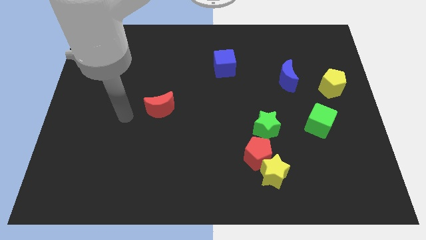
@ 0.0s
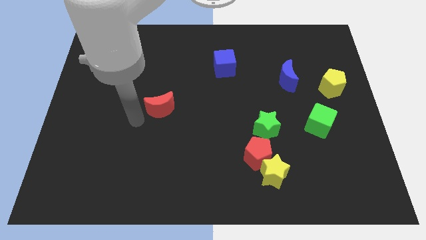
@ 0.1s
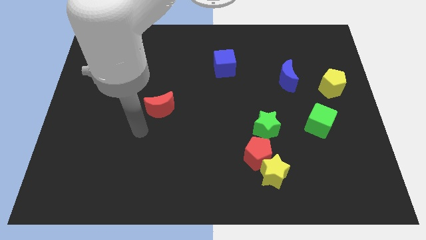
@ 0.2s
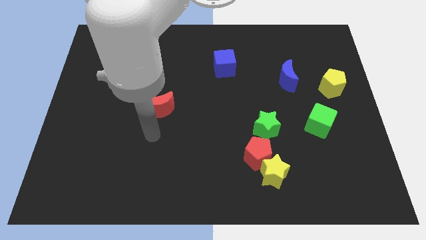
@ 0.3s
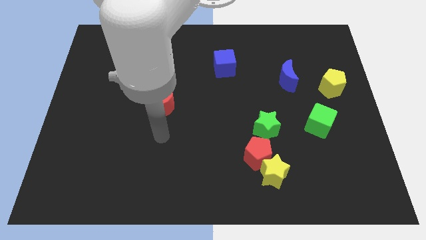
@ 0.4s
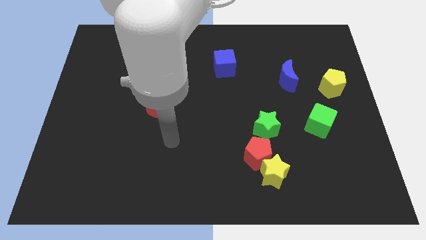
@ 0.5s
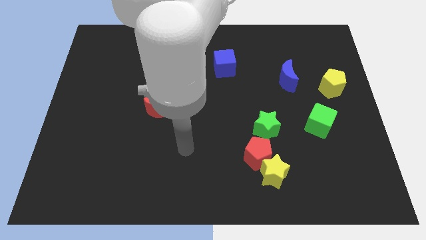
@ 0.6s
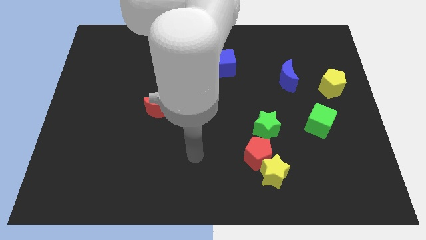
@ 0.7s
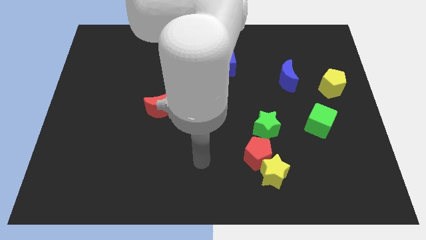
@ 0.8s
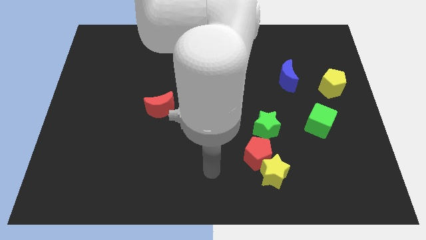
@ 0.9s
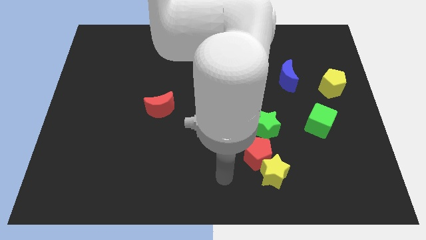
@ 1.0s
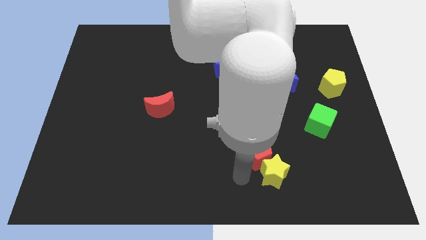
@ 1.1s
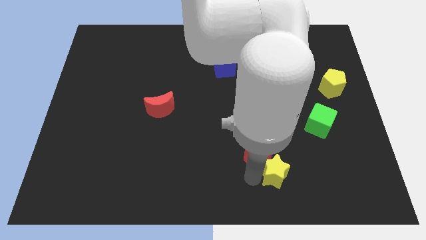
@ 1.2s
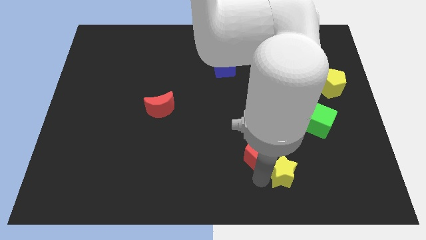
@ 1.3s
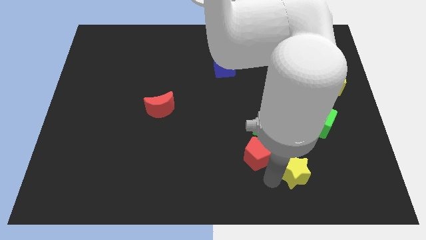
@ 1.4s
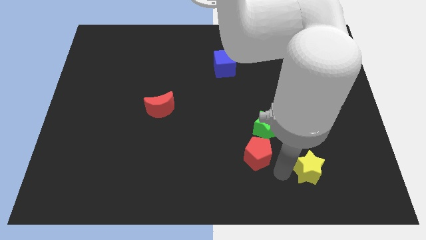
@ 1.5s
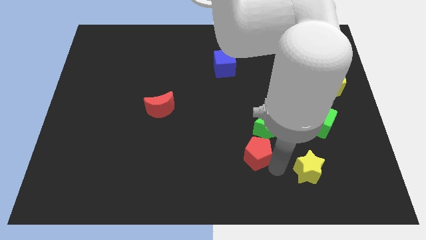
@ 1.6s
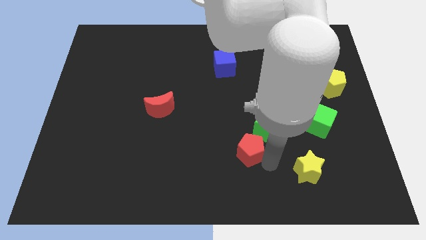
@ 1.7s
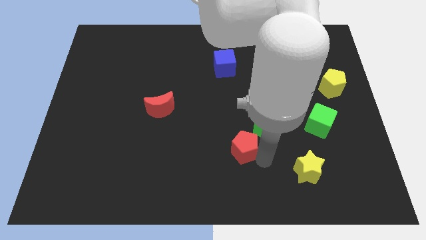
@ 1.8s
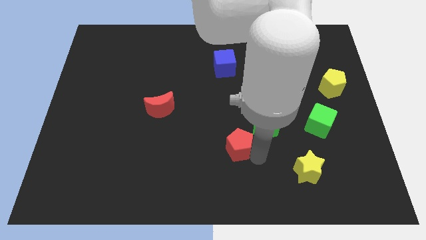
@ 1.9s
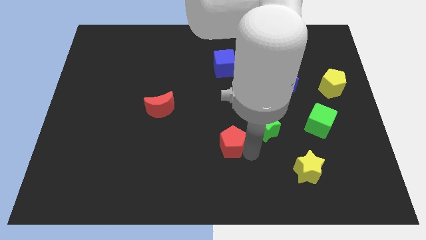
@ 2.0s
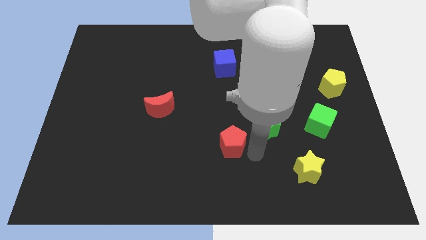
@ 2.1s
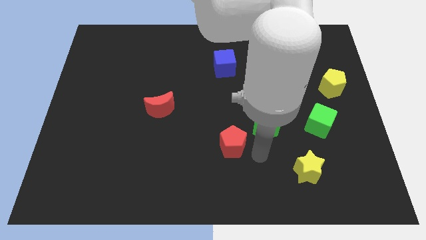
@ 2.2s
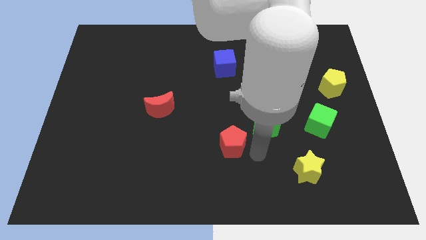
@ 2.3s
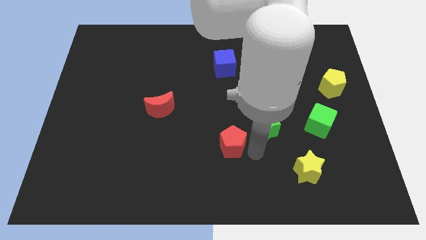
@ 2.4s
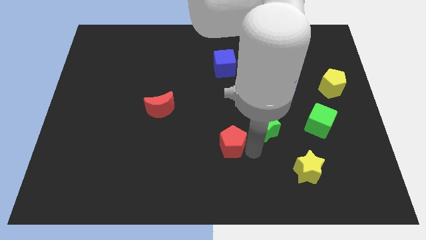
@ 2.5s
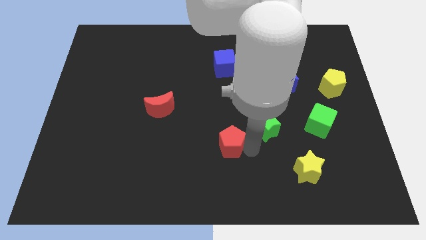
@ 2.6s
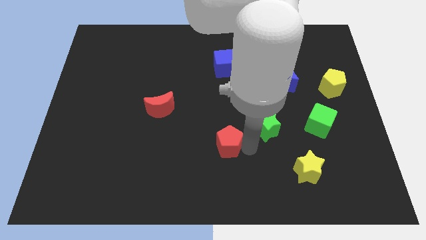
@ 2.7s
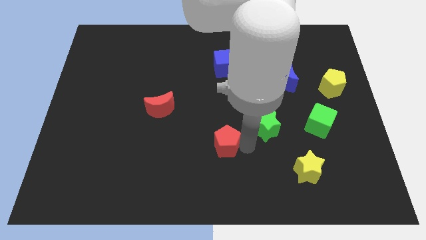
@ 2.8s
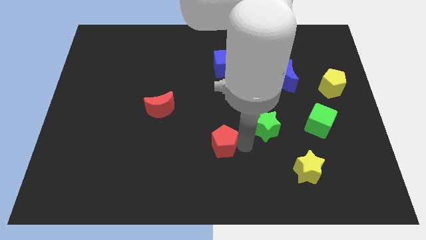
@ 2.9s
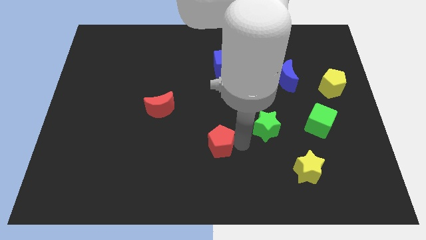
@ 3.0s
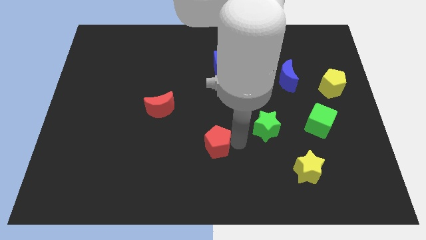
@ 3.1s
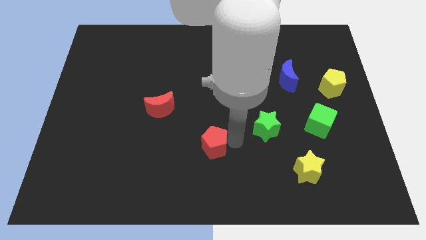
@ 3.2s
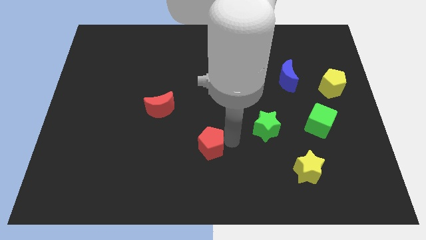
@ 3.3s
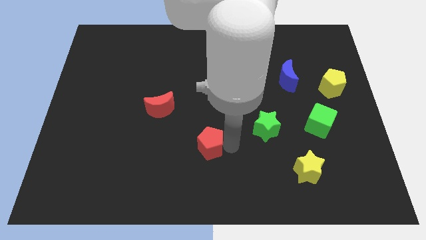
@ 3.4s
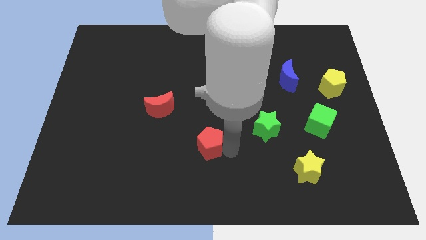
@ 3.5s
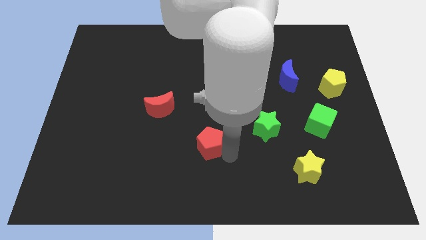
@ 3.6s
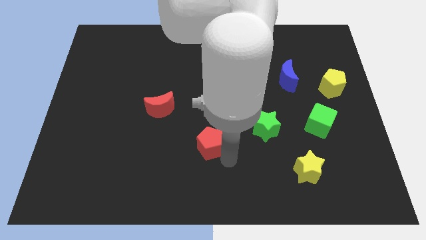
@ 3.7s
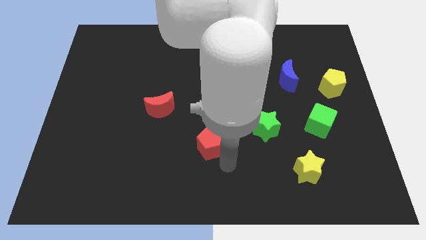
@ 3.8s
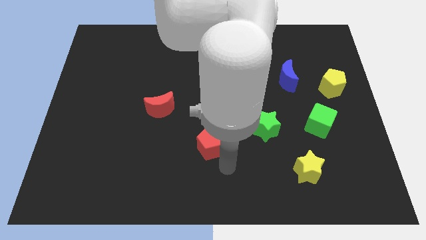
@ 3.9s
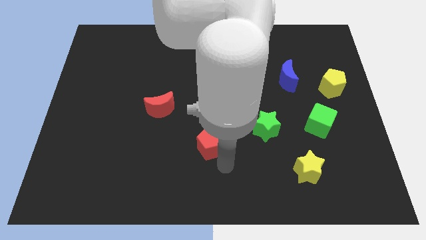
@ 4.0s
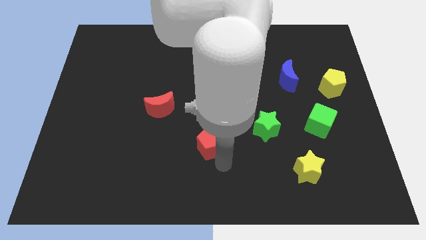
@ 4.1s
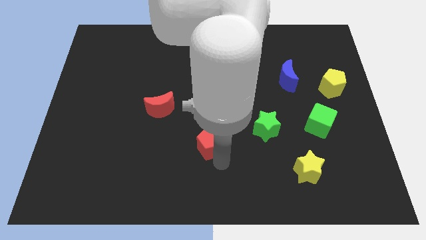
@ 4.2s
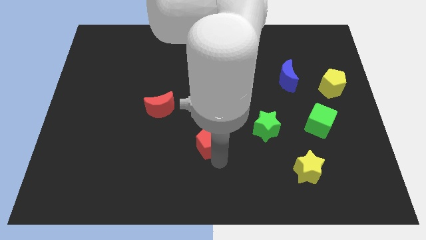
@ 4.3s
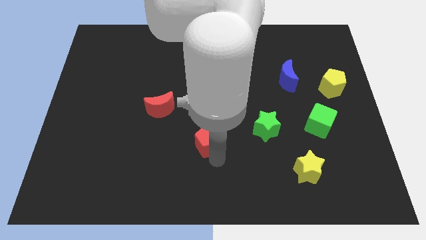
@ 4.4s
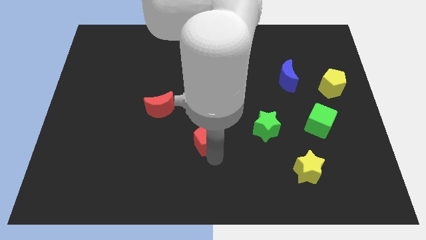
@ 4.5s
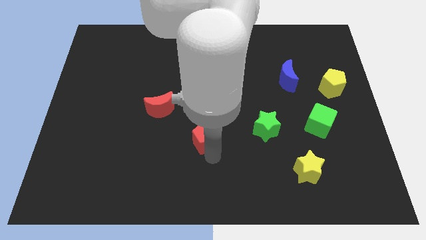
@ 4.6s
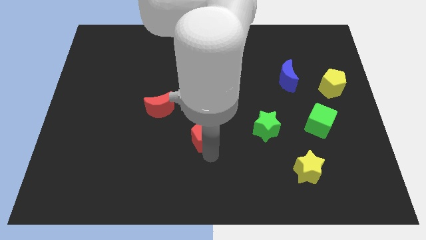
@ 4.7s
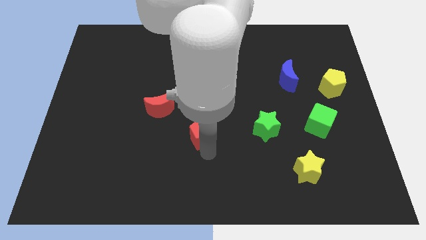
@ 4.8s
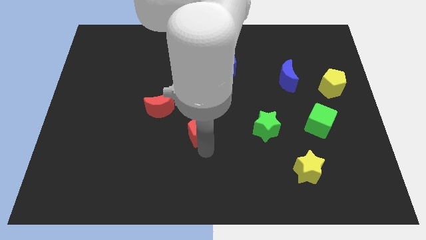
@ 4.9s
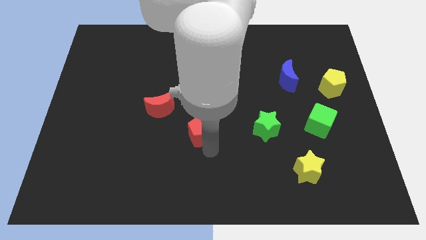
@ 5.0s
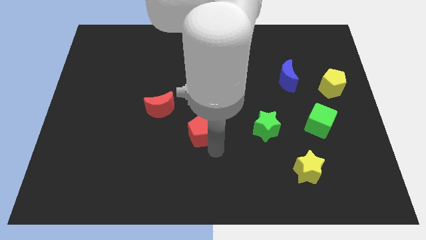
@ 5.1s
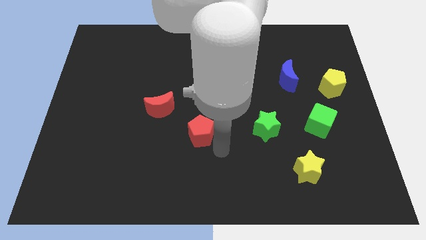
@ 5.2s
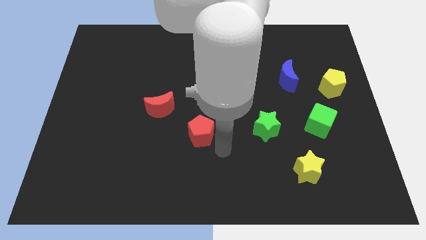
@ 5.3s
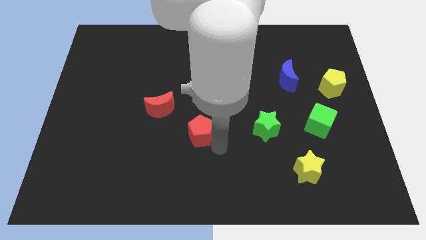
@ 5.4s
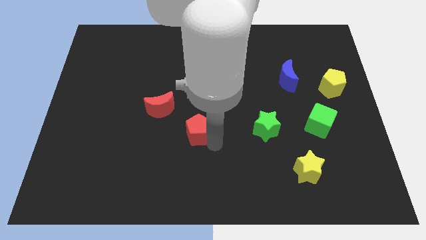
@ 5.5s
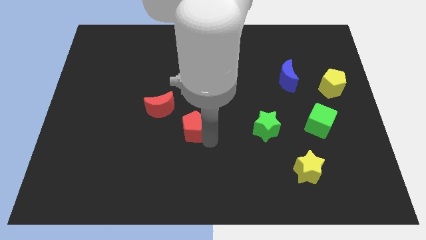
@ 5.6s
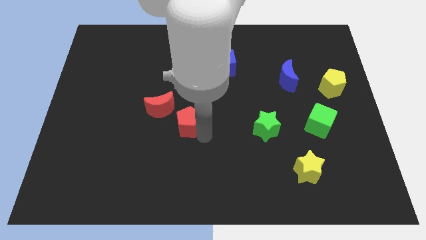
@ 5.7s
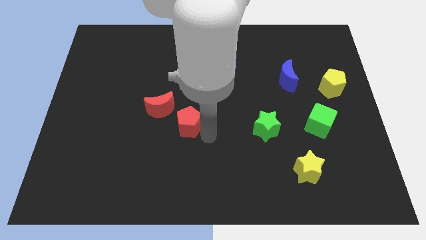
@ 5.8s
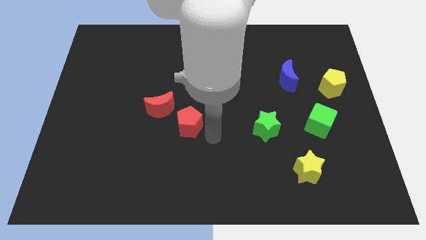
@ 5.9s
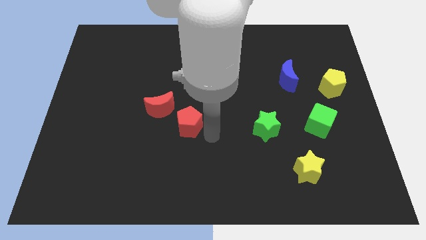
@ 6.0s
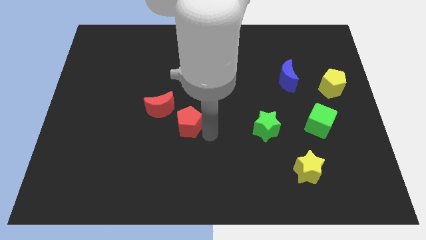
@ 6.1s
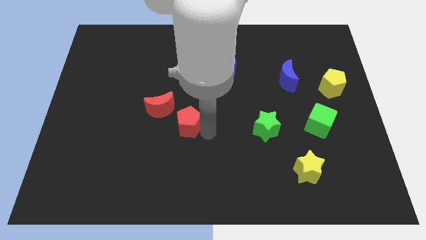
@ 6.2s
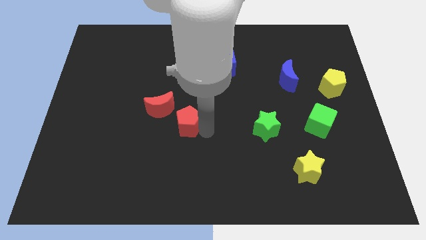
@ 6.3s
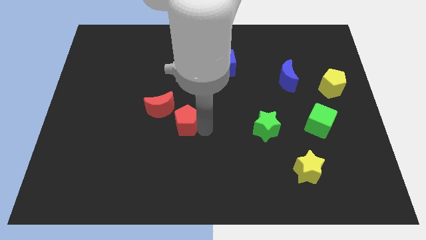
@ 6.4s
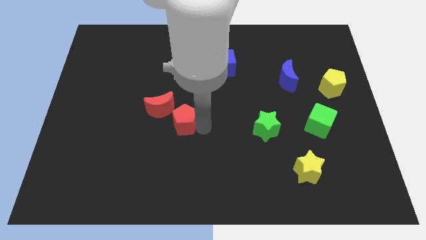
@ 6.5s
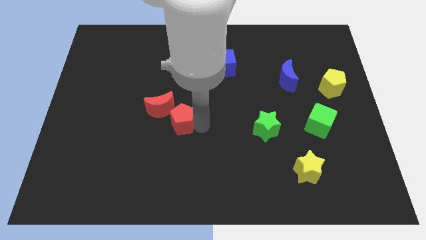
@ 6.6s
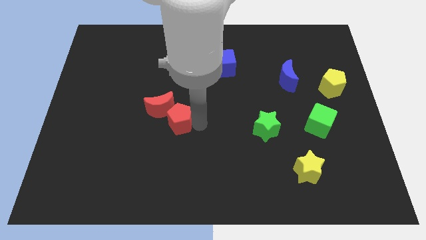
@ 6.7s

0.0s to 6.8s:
slide the red pentagon to the red moon

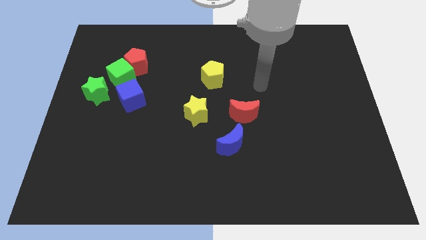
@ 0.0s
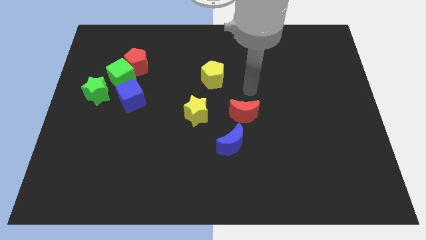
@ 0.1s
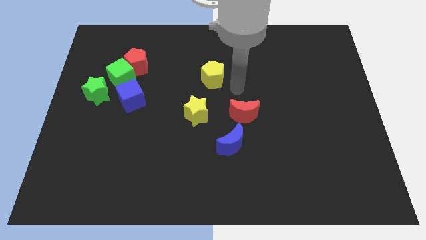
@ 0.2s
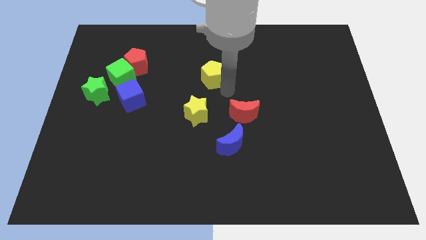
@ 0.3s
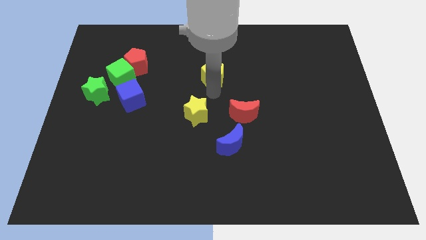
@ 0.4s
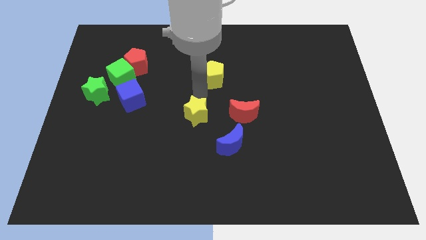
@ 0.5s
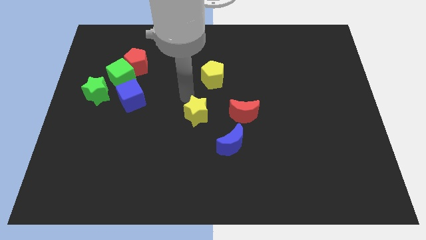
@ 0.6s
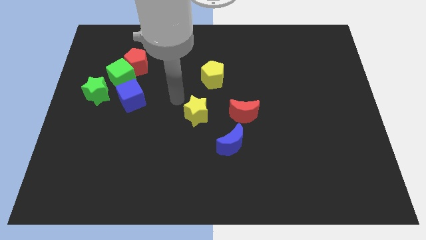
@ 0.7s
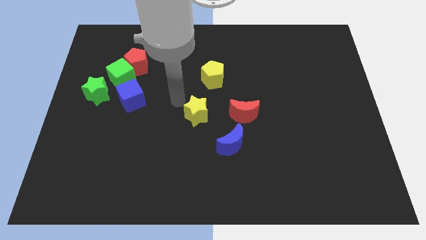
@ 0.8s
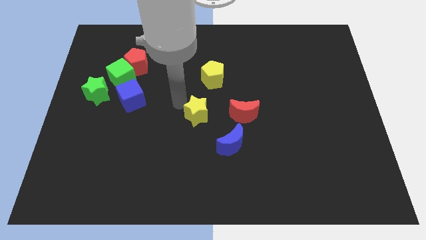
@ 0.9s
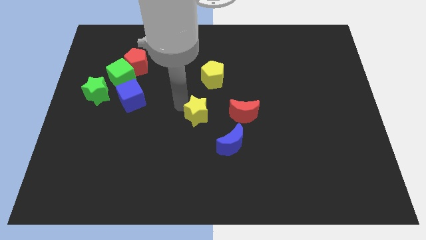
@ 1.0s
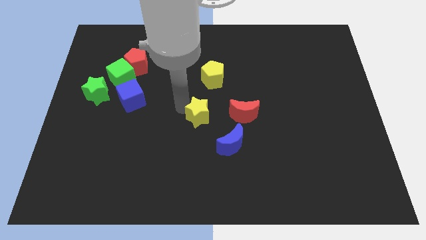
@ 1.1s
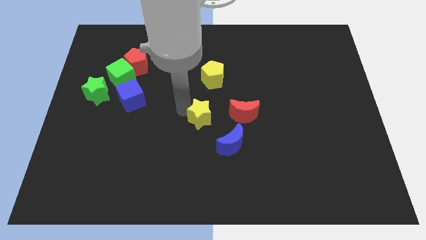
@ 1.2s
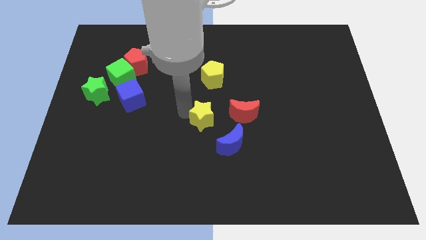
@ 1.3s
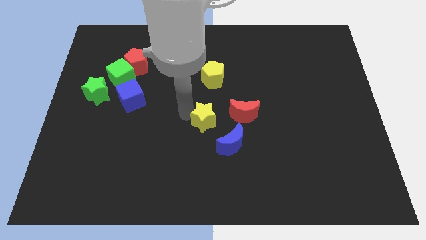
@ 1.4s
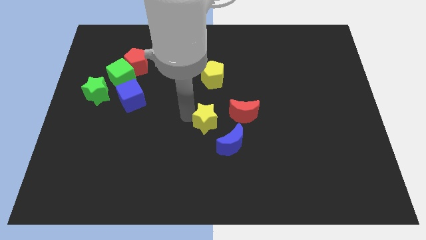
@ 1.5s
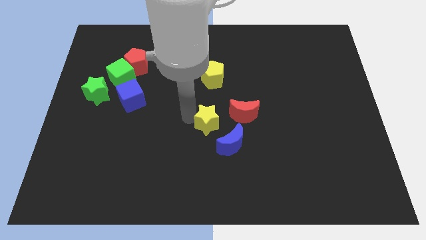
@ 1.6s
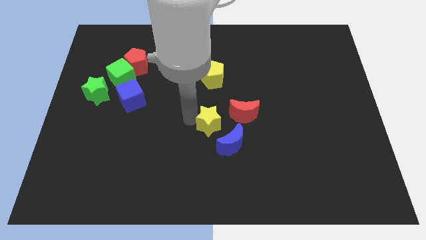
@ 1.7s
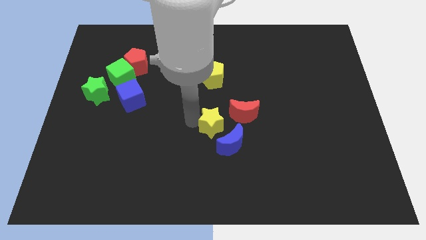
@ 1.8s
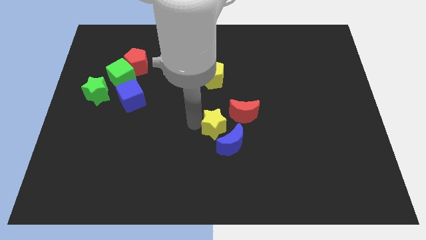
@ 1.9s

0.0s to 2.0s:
slide the yellow star towards the blue moon
